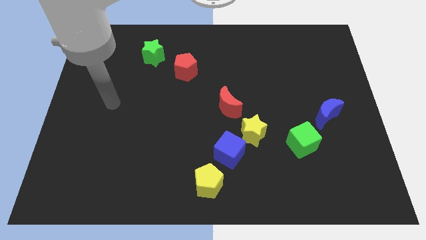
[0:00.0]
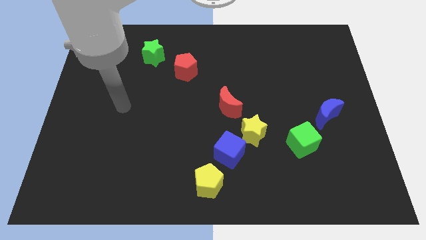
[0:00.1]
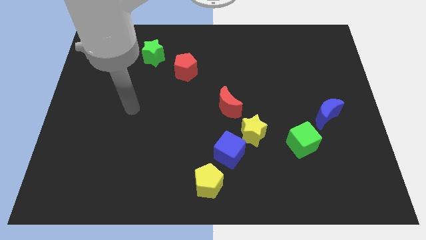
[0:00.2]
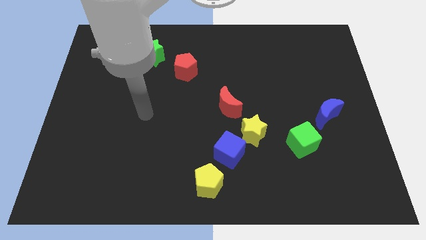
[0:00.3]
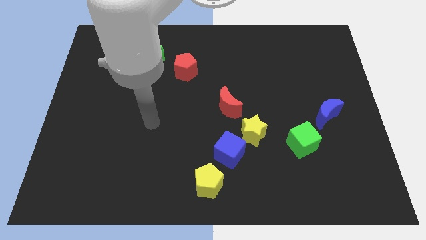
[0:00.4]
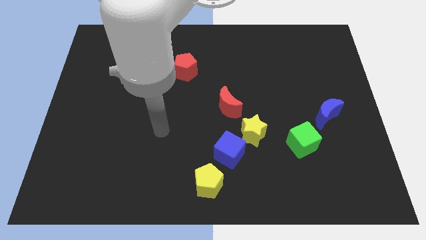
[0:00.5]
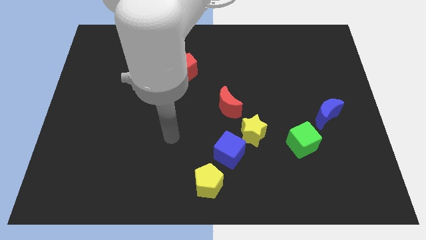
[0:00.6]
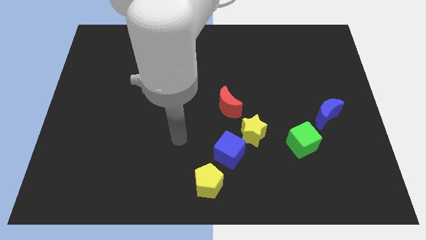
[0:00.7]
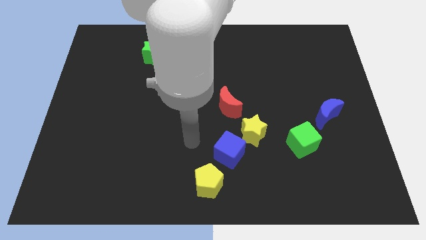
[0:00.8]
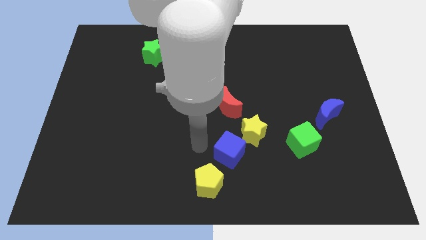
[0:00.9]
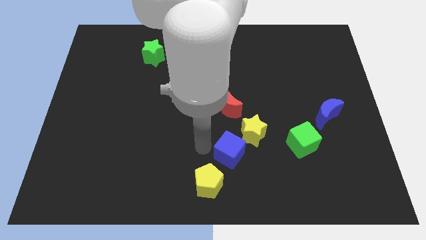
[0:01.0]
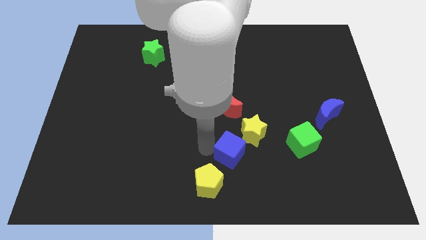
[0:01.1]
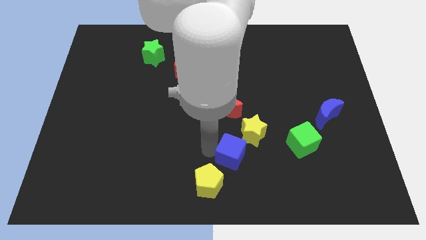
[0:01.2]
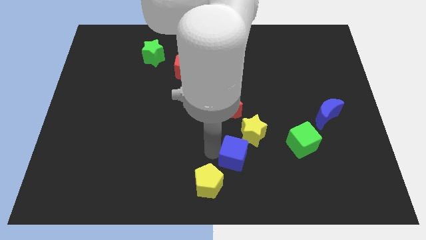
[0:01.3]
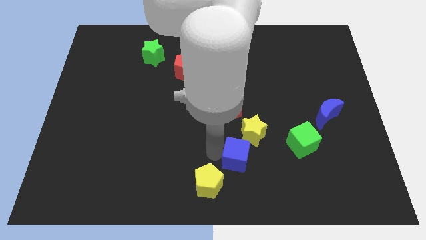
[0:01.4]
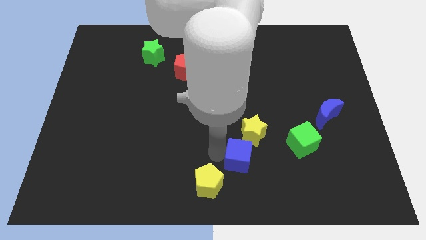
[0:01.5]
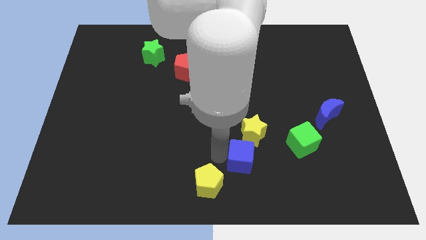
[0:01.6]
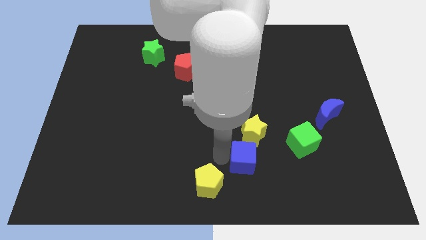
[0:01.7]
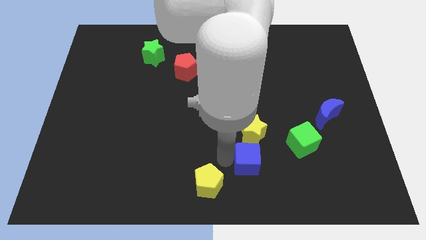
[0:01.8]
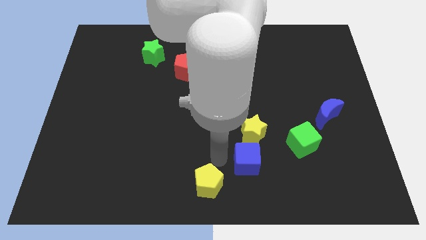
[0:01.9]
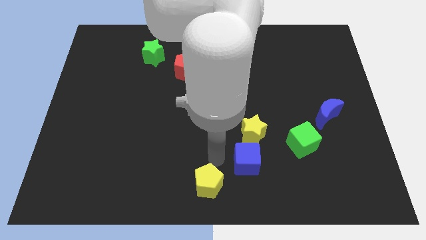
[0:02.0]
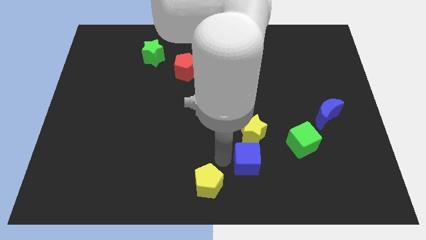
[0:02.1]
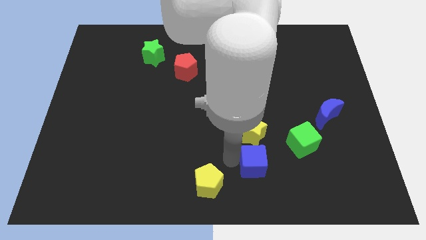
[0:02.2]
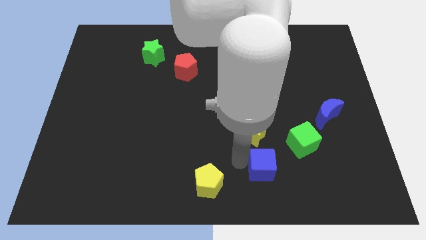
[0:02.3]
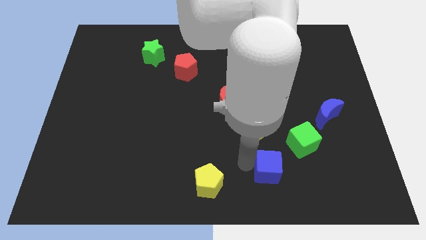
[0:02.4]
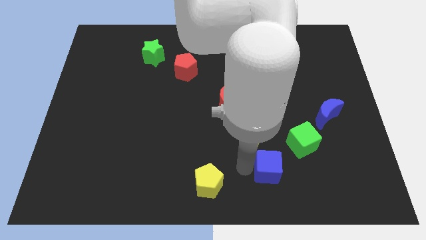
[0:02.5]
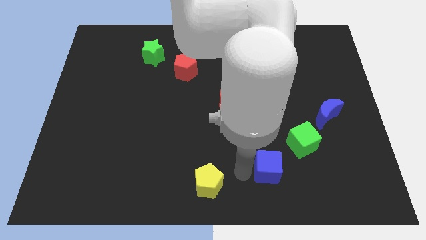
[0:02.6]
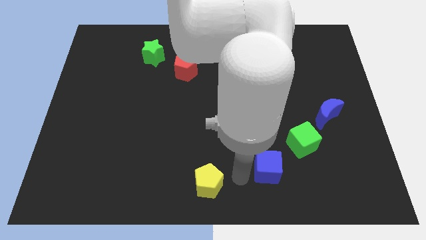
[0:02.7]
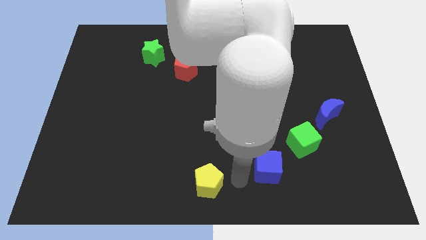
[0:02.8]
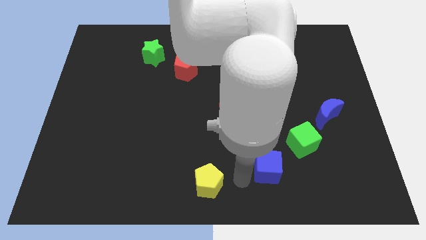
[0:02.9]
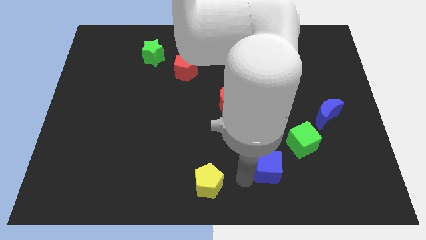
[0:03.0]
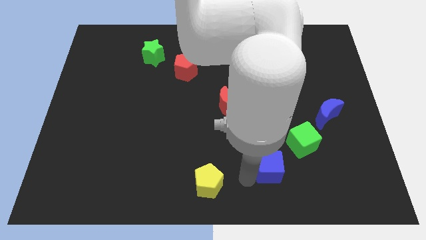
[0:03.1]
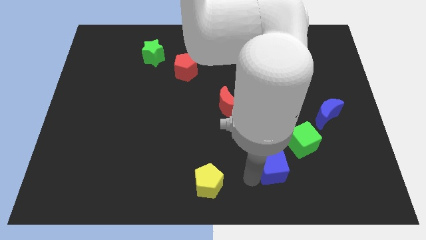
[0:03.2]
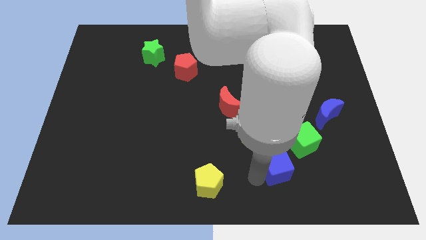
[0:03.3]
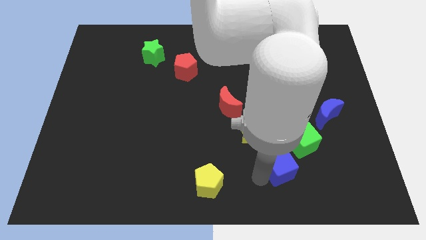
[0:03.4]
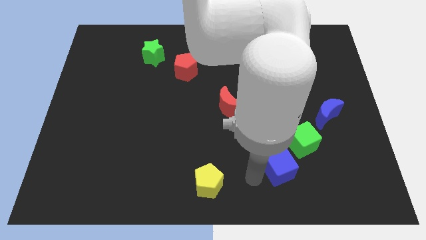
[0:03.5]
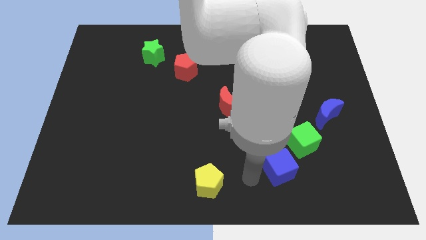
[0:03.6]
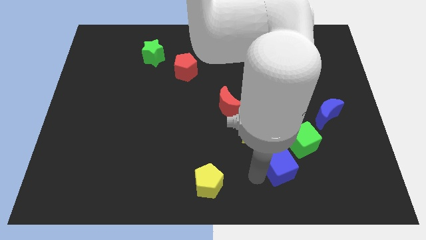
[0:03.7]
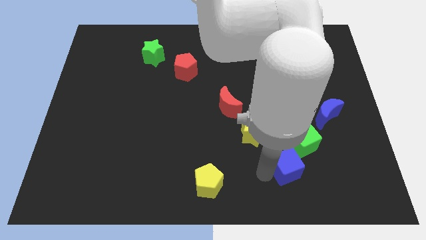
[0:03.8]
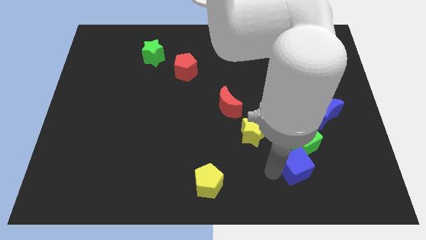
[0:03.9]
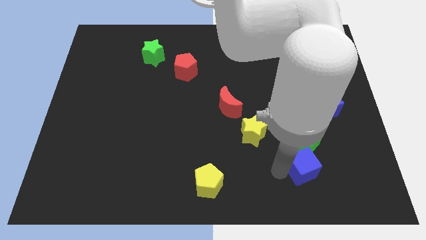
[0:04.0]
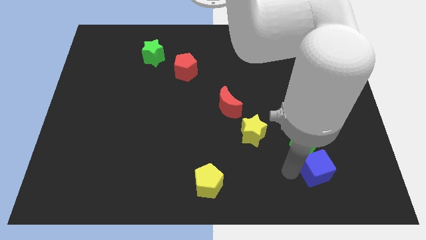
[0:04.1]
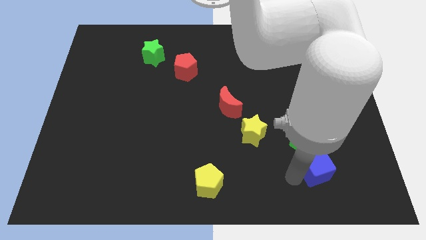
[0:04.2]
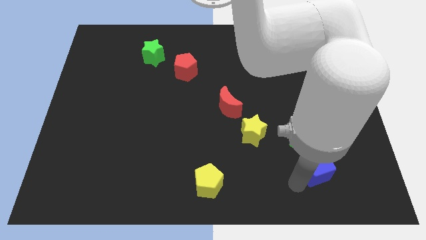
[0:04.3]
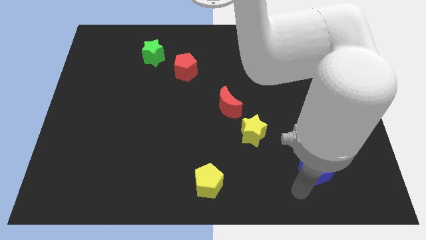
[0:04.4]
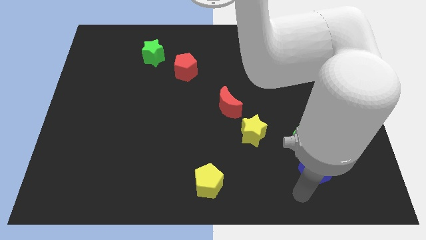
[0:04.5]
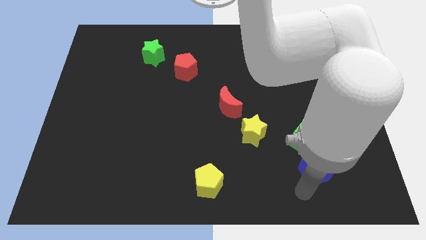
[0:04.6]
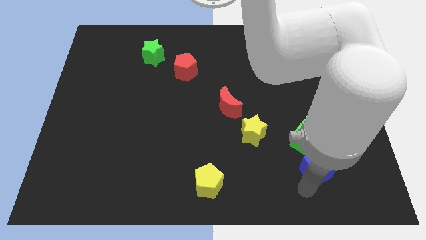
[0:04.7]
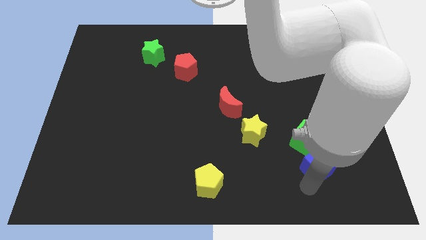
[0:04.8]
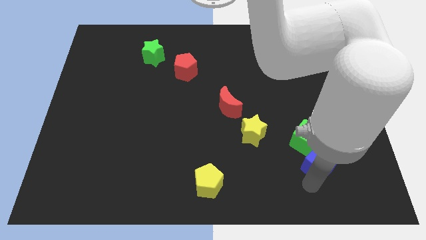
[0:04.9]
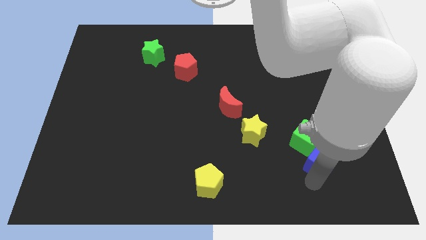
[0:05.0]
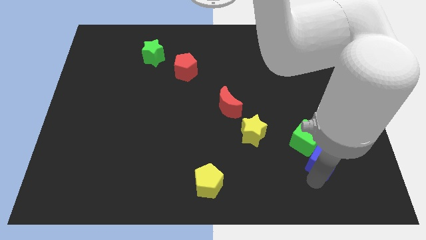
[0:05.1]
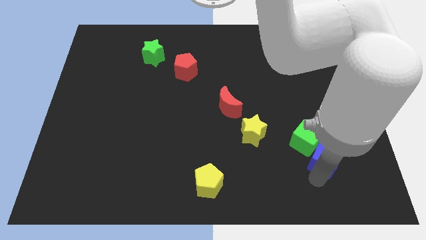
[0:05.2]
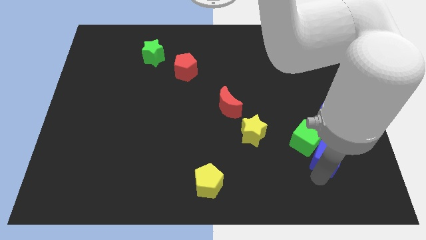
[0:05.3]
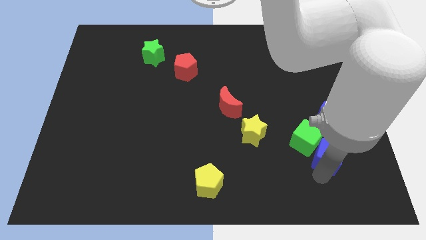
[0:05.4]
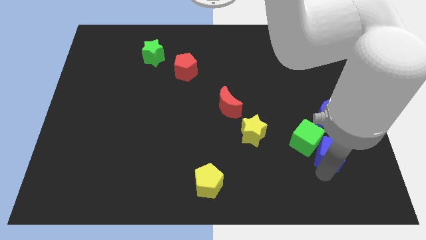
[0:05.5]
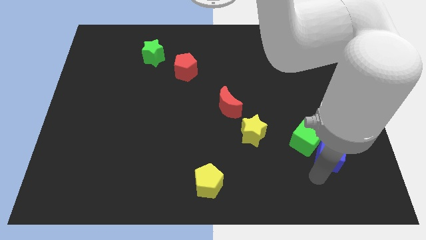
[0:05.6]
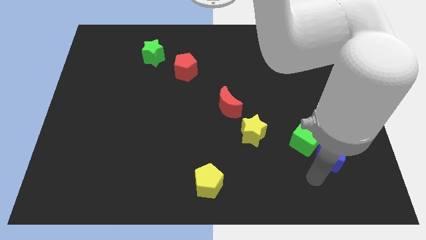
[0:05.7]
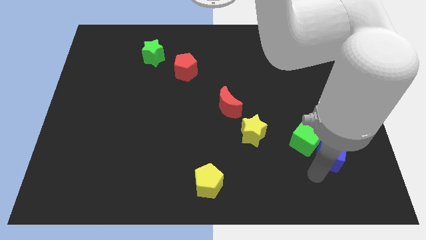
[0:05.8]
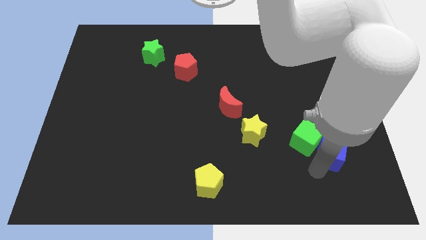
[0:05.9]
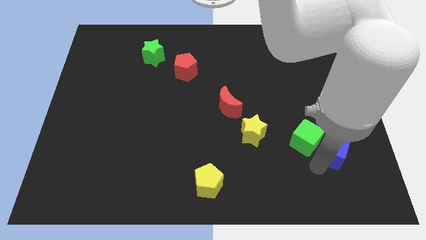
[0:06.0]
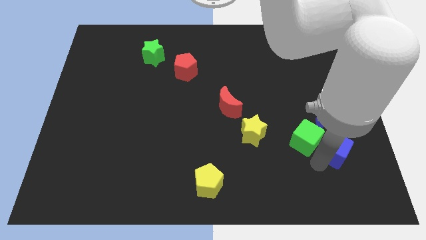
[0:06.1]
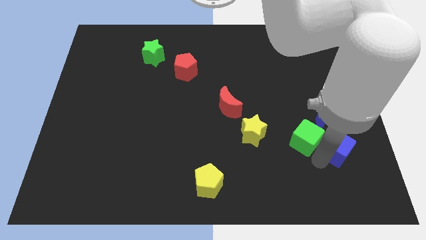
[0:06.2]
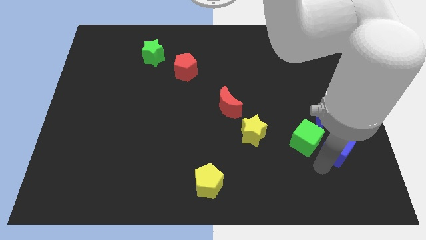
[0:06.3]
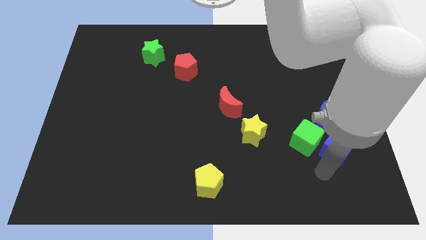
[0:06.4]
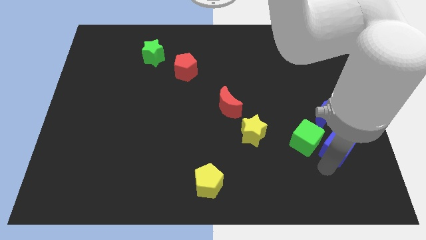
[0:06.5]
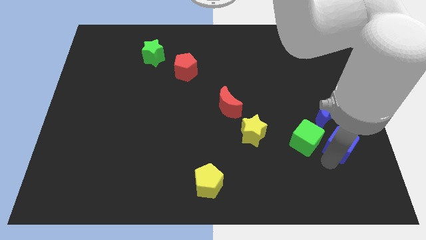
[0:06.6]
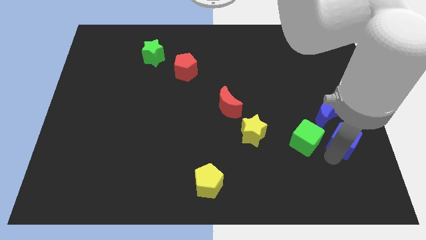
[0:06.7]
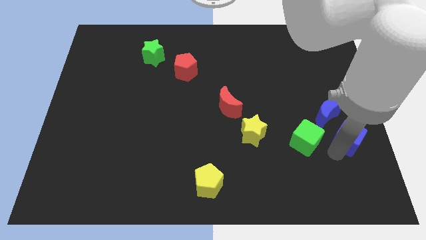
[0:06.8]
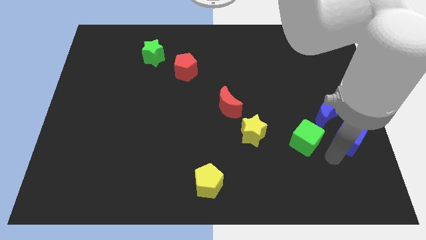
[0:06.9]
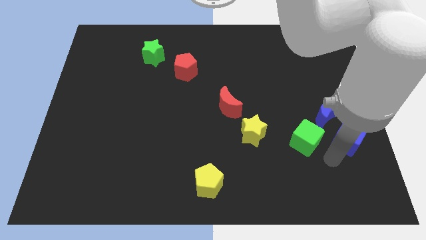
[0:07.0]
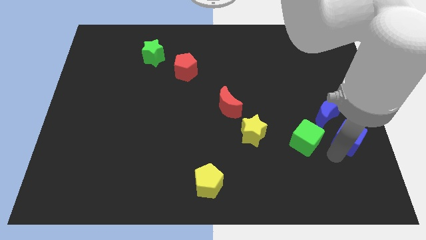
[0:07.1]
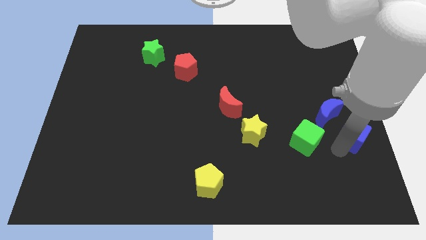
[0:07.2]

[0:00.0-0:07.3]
push the blue cube to the right side of the board
